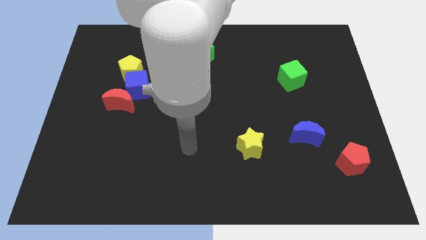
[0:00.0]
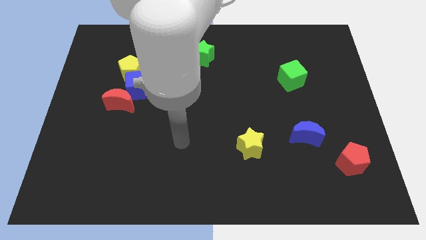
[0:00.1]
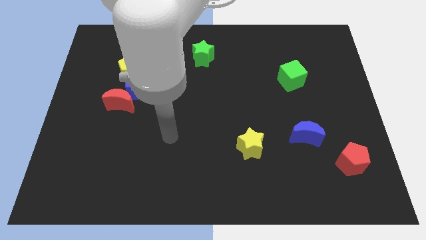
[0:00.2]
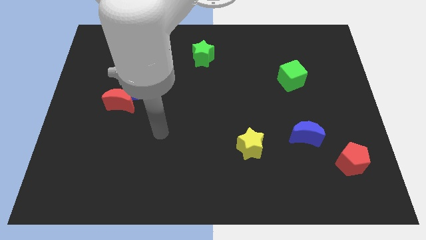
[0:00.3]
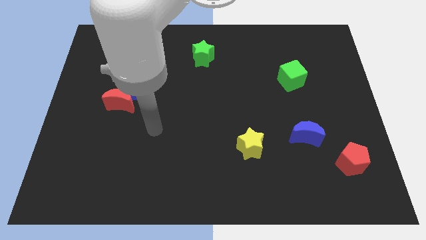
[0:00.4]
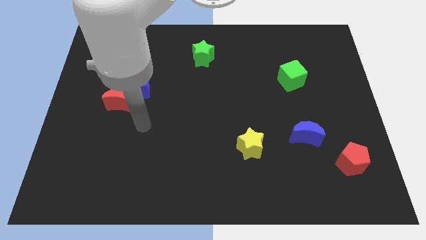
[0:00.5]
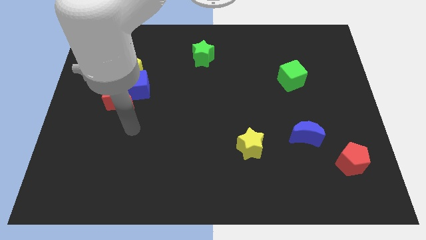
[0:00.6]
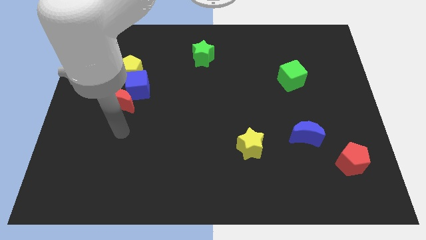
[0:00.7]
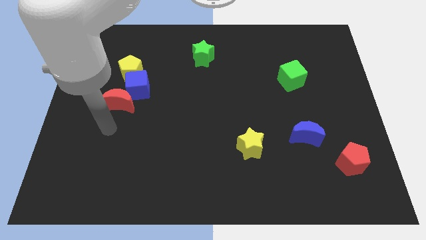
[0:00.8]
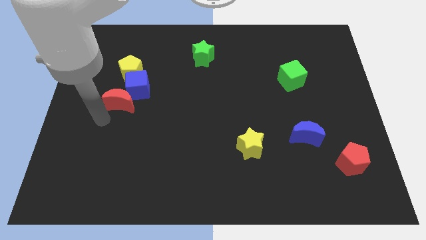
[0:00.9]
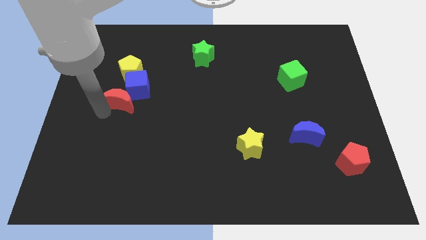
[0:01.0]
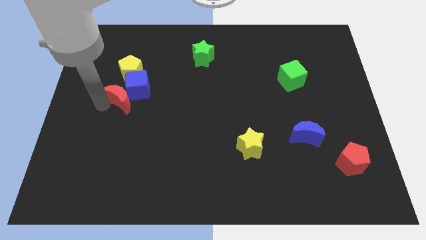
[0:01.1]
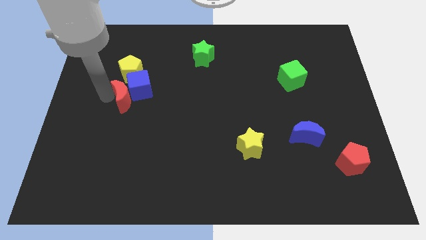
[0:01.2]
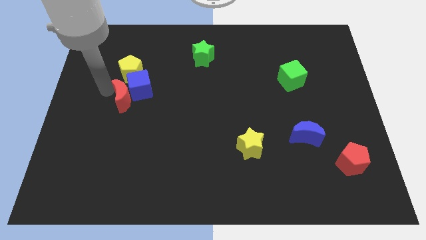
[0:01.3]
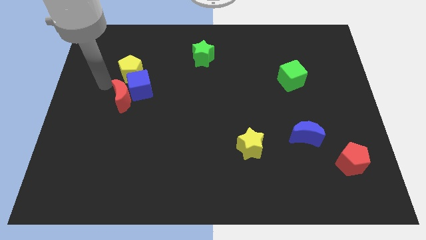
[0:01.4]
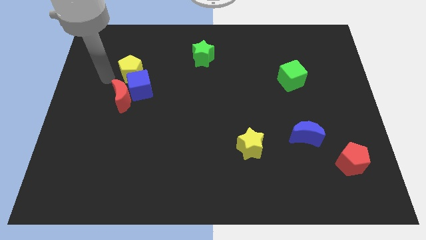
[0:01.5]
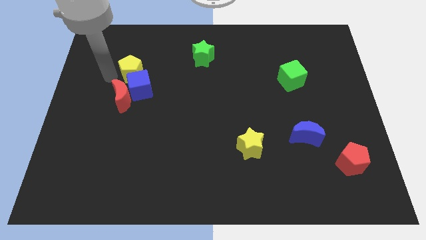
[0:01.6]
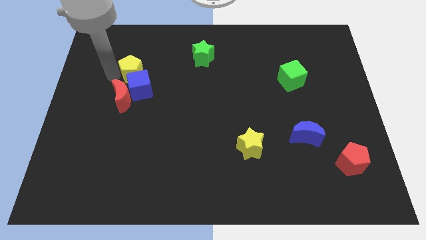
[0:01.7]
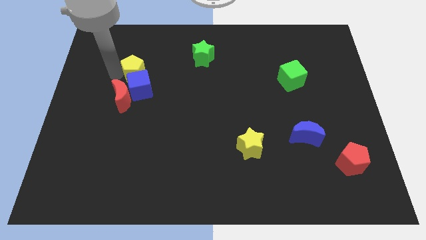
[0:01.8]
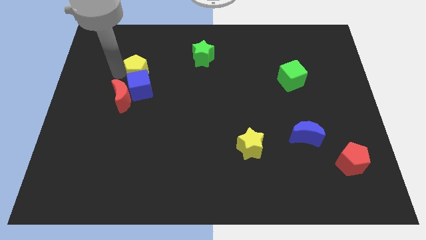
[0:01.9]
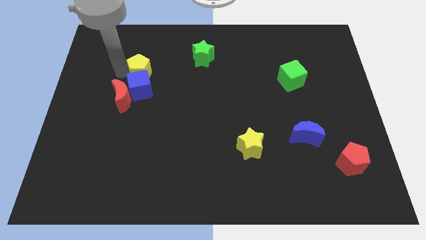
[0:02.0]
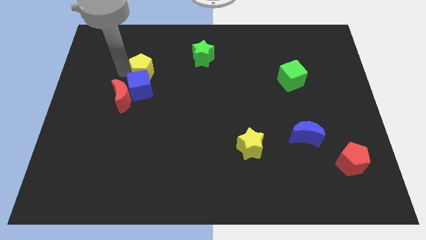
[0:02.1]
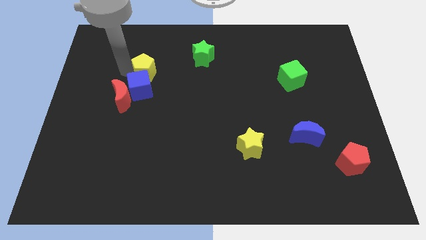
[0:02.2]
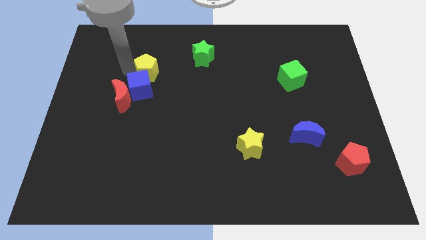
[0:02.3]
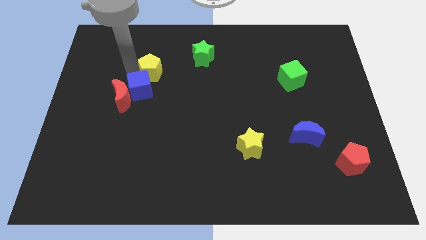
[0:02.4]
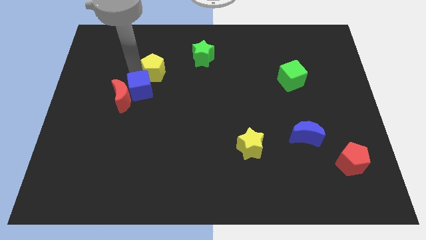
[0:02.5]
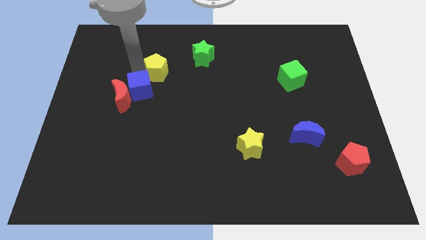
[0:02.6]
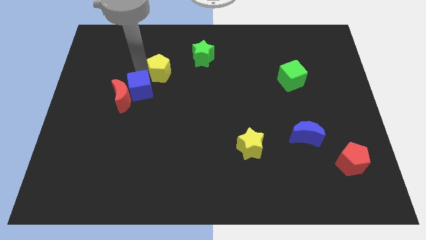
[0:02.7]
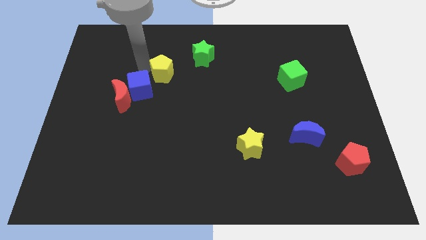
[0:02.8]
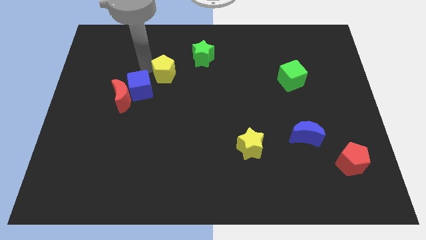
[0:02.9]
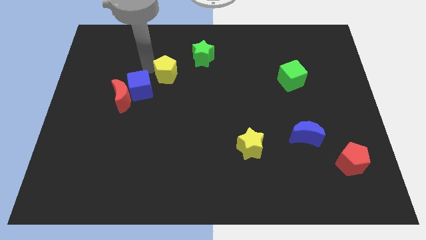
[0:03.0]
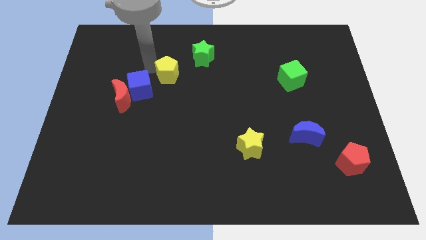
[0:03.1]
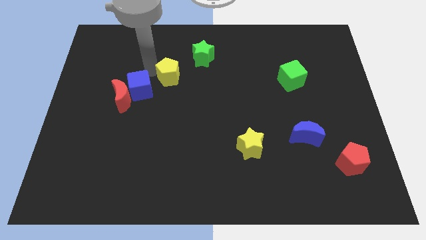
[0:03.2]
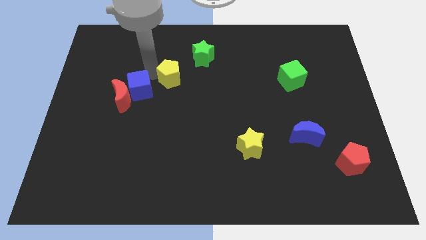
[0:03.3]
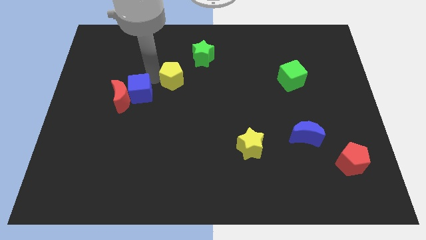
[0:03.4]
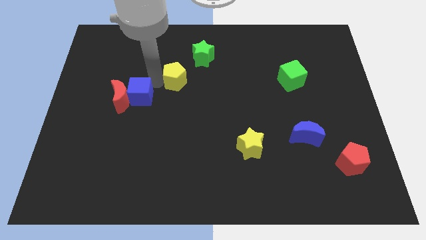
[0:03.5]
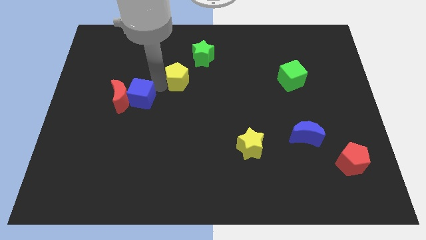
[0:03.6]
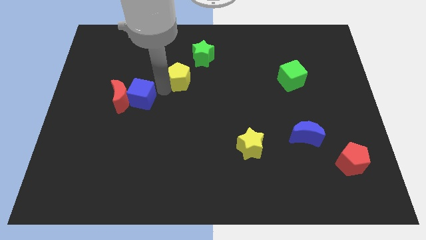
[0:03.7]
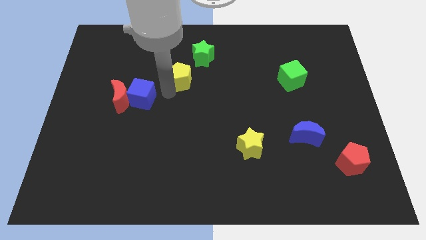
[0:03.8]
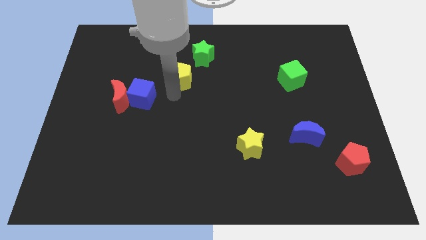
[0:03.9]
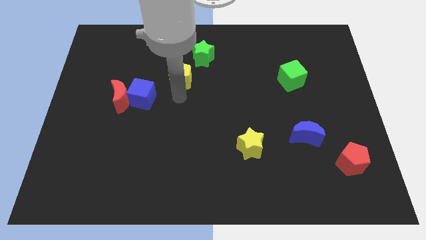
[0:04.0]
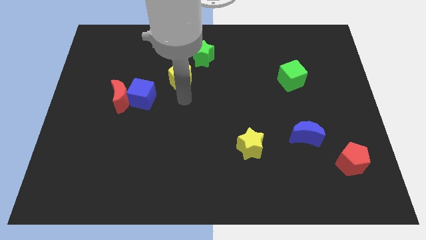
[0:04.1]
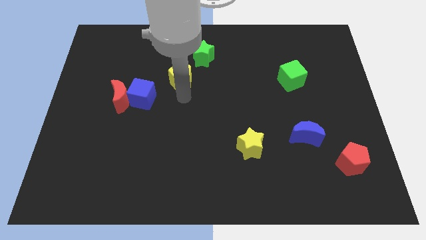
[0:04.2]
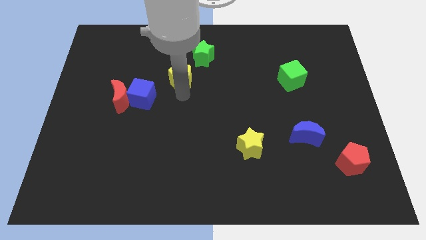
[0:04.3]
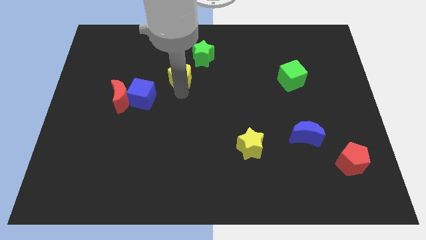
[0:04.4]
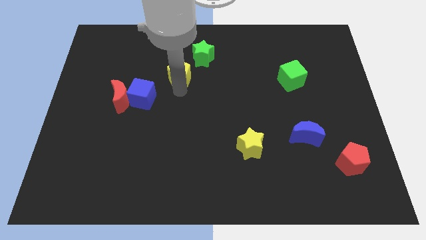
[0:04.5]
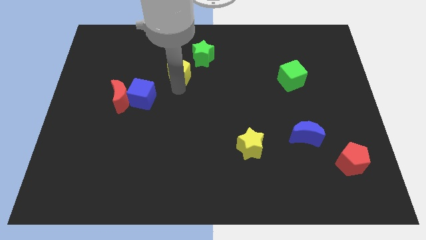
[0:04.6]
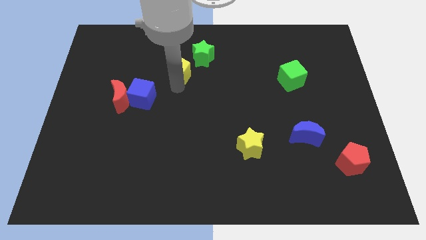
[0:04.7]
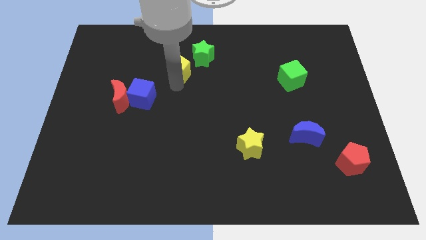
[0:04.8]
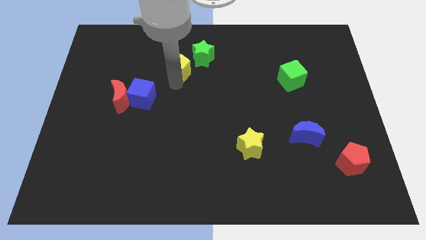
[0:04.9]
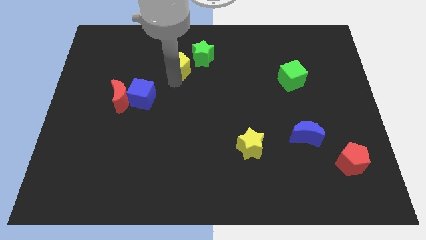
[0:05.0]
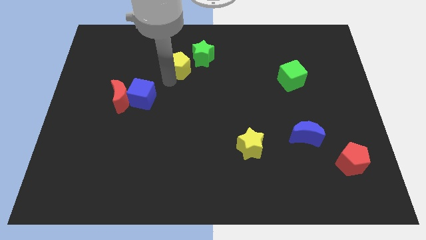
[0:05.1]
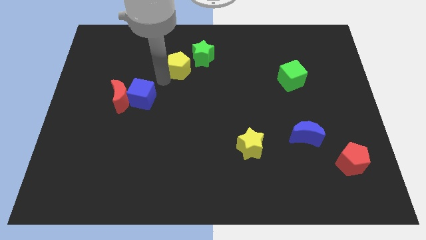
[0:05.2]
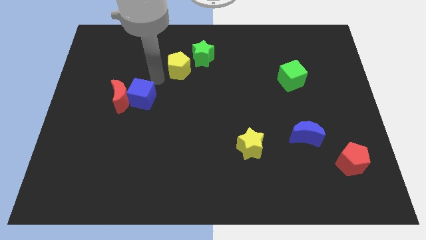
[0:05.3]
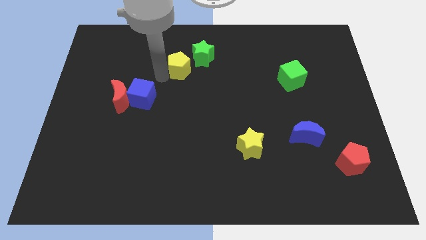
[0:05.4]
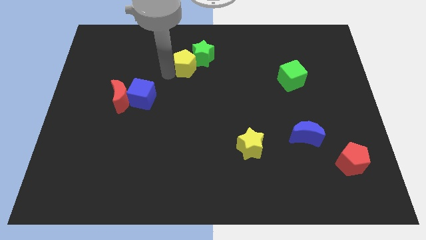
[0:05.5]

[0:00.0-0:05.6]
slide the yellow pentagon to the green star

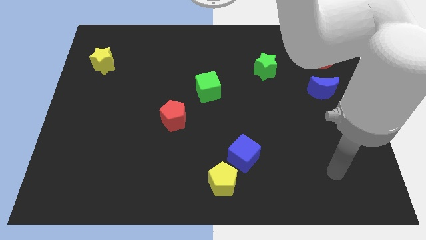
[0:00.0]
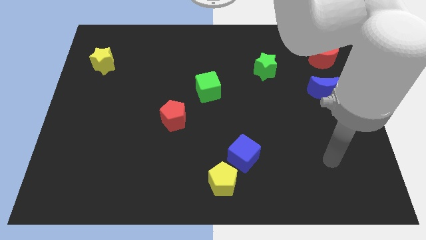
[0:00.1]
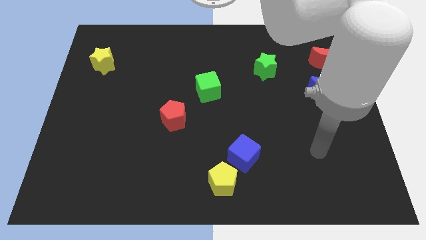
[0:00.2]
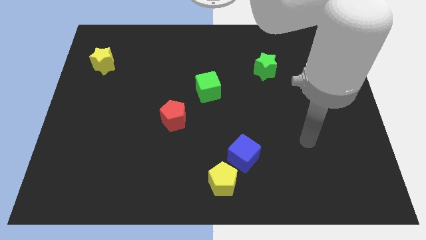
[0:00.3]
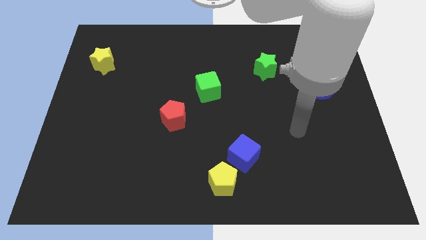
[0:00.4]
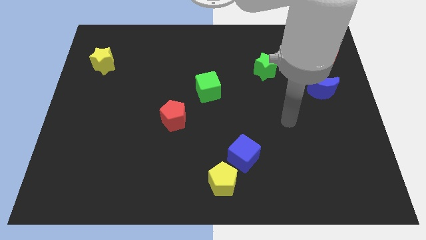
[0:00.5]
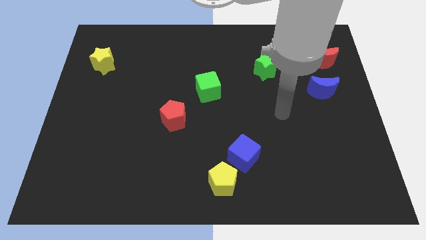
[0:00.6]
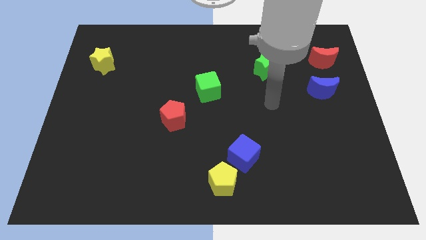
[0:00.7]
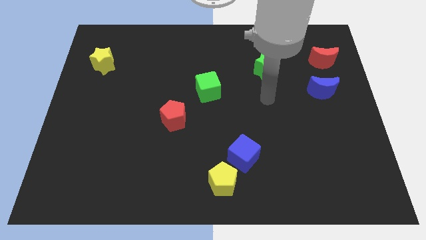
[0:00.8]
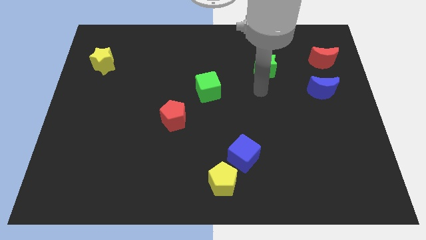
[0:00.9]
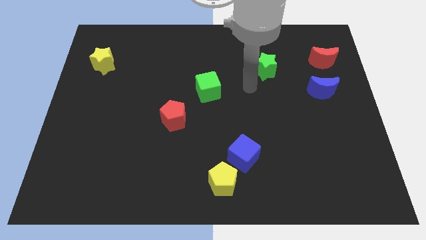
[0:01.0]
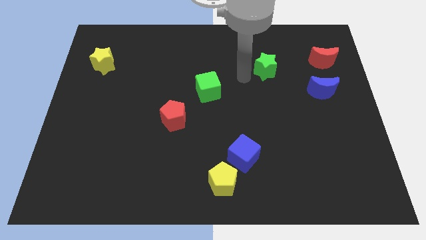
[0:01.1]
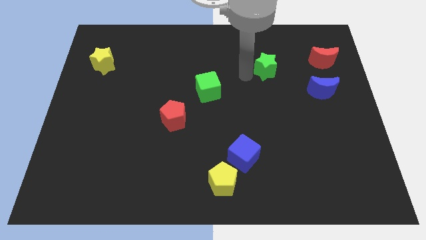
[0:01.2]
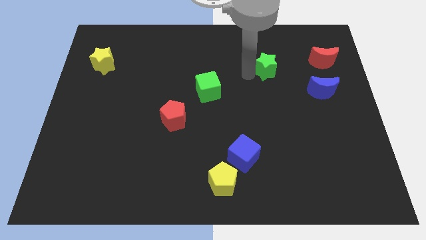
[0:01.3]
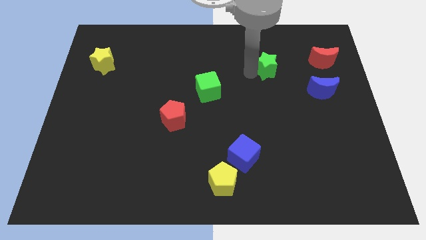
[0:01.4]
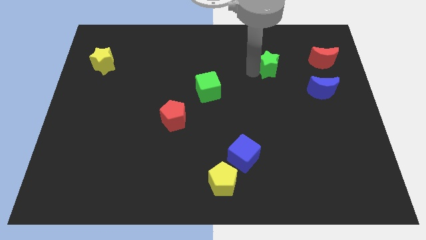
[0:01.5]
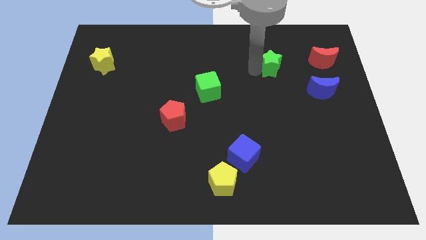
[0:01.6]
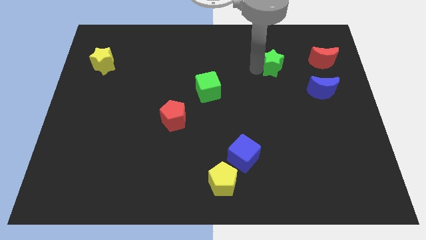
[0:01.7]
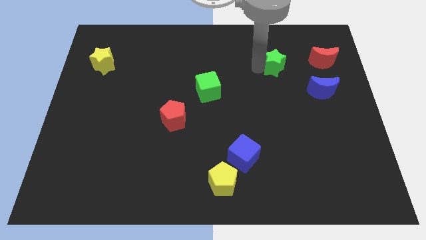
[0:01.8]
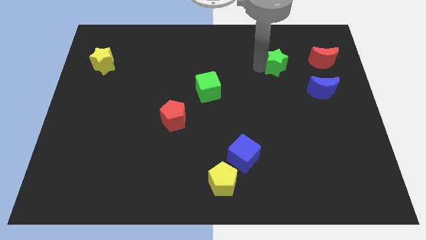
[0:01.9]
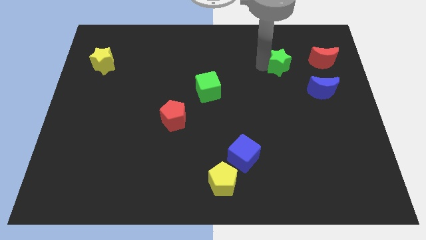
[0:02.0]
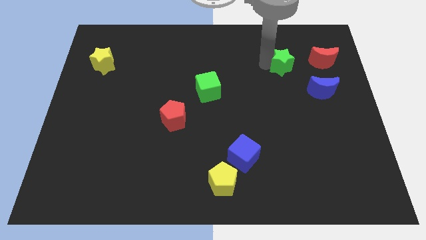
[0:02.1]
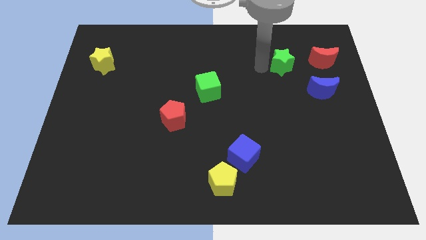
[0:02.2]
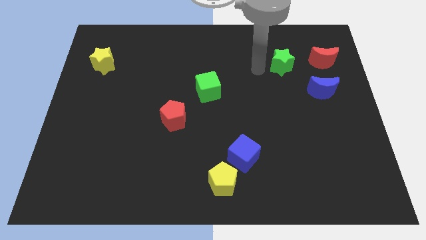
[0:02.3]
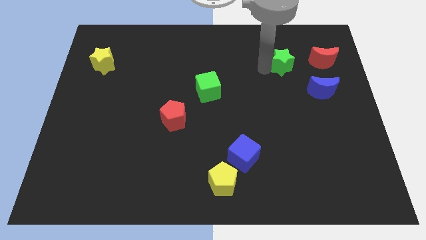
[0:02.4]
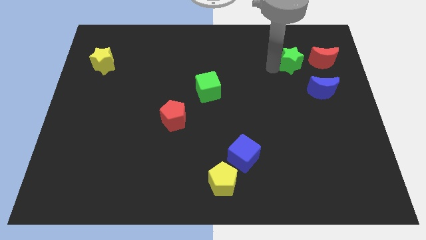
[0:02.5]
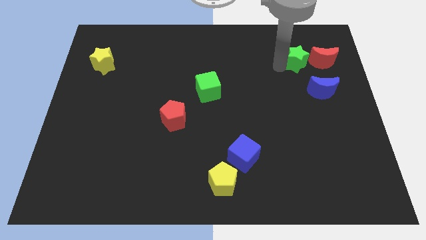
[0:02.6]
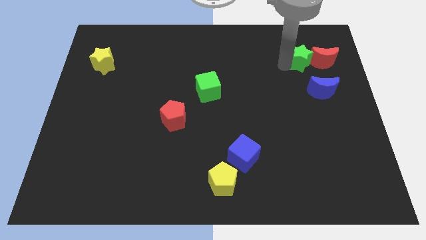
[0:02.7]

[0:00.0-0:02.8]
slide the green star towards the red moon

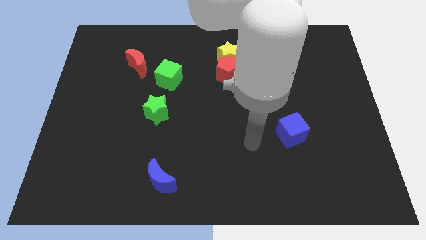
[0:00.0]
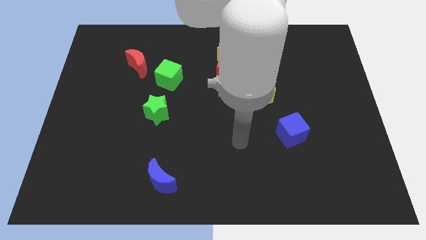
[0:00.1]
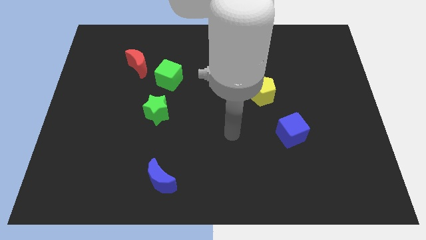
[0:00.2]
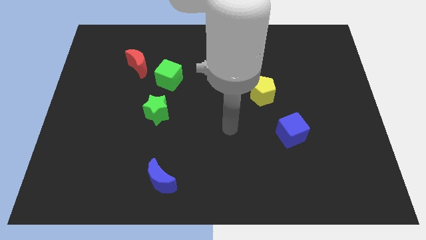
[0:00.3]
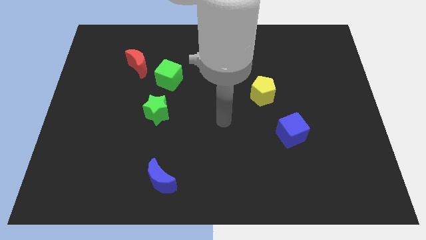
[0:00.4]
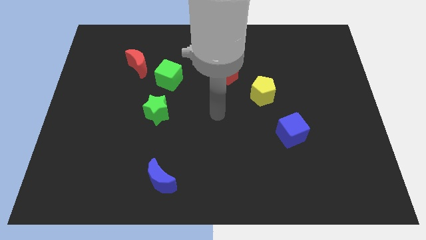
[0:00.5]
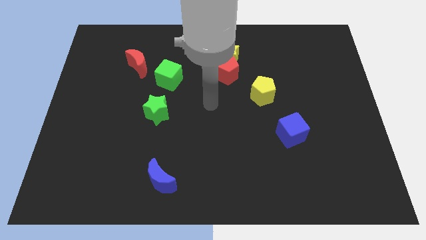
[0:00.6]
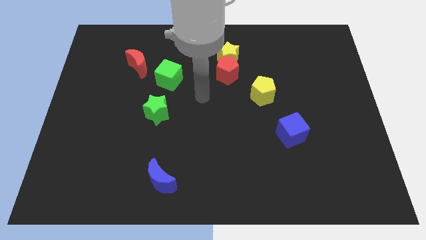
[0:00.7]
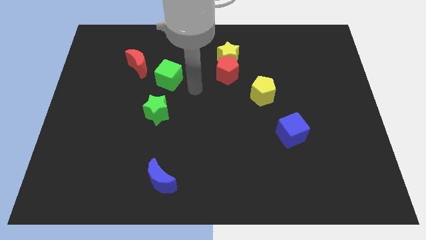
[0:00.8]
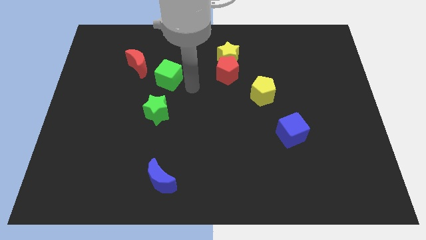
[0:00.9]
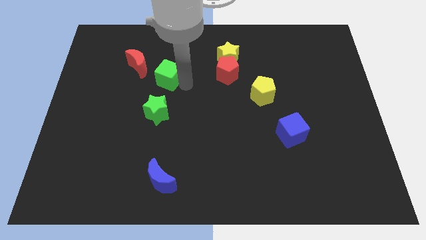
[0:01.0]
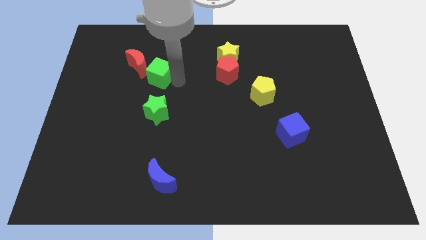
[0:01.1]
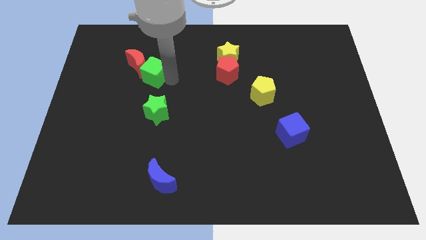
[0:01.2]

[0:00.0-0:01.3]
slide the green cube close to the red moon
